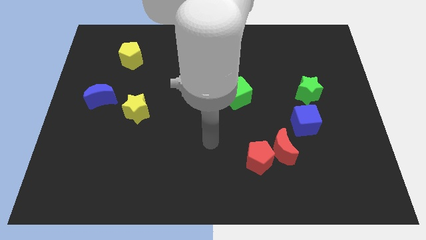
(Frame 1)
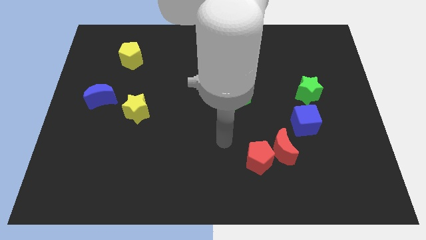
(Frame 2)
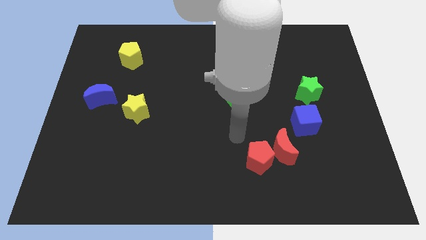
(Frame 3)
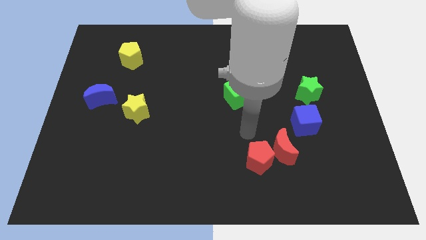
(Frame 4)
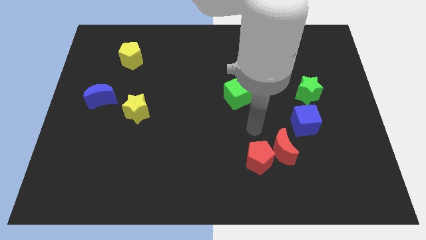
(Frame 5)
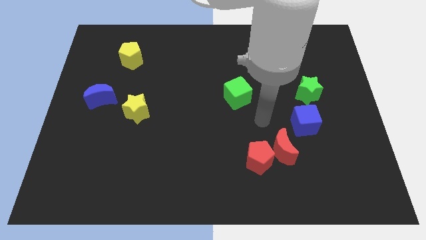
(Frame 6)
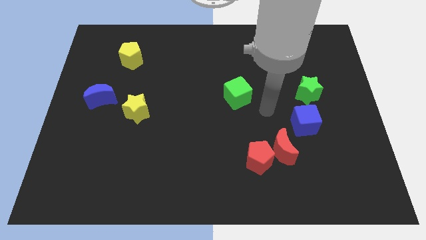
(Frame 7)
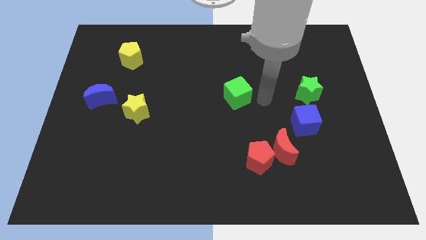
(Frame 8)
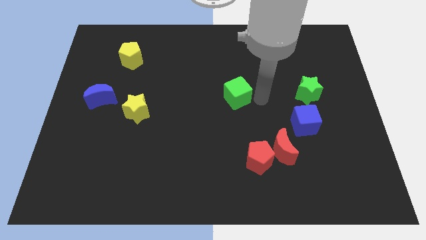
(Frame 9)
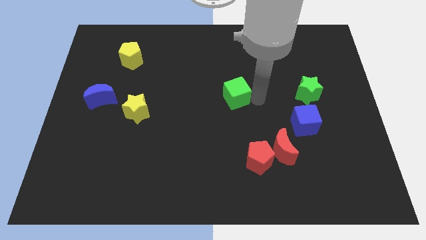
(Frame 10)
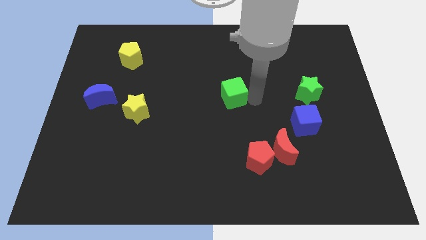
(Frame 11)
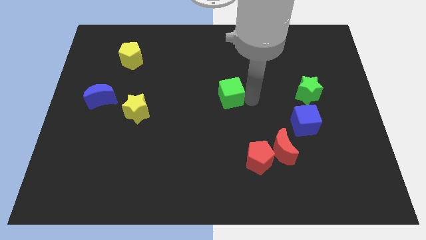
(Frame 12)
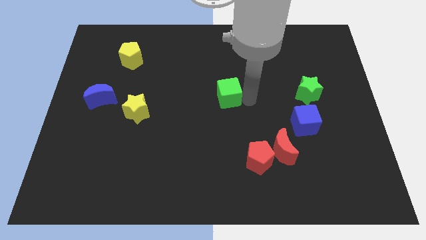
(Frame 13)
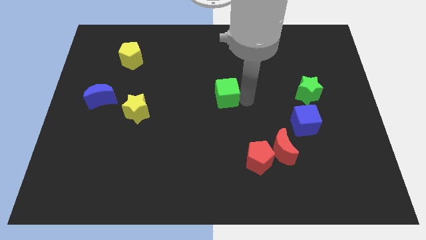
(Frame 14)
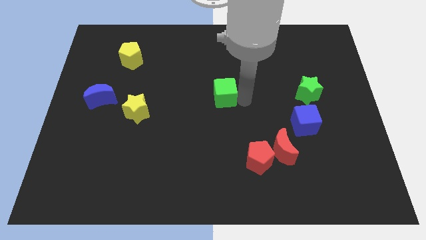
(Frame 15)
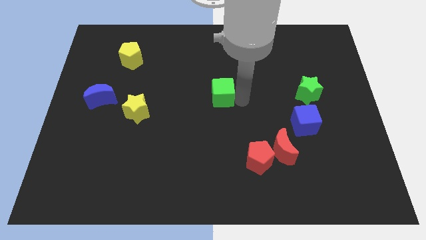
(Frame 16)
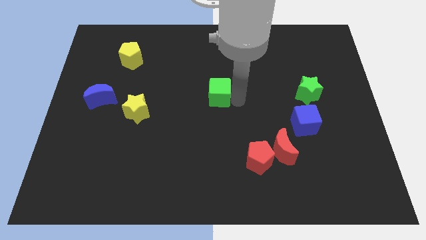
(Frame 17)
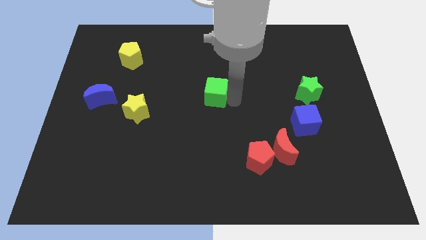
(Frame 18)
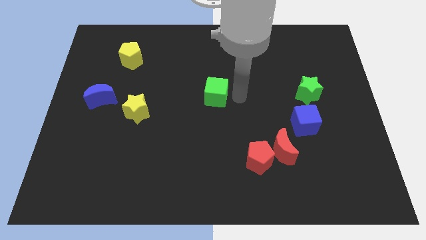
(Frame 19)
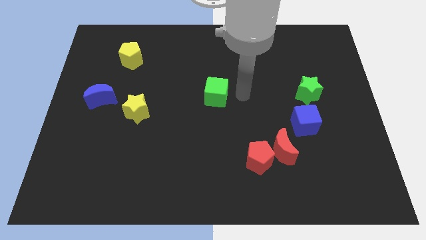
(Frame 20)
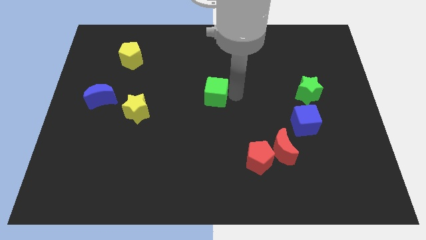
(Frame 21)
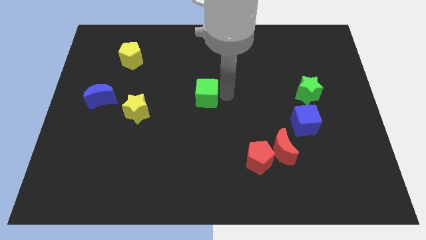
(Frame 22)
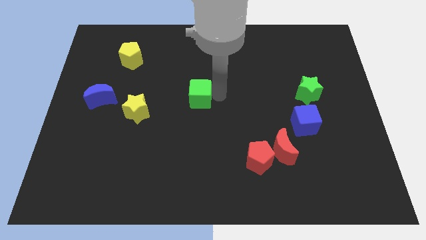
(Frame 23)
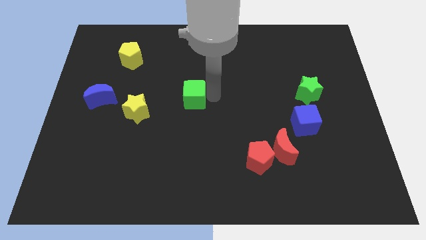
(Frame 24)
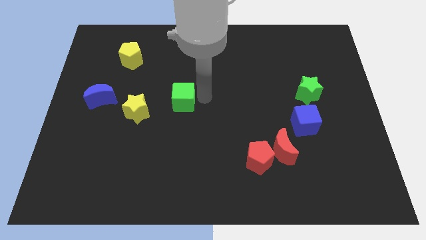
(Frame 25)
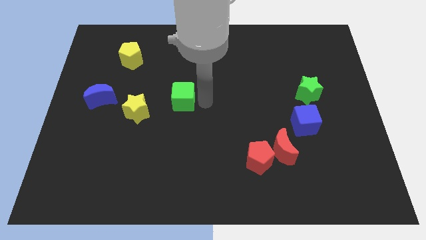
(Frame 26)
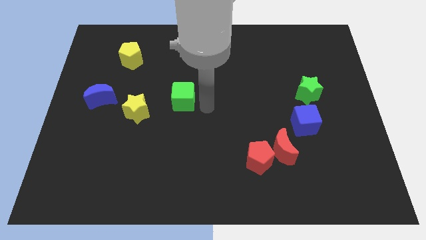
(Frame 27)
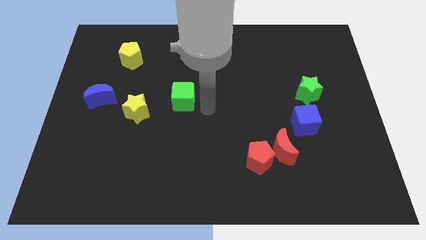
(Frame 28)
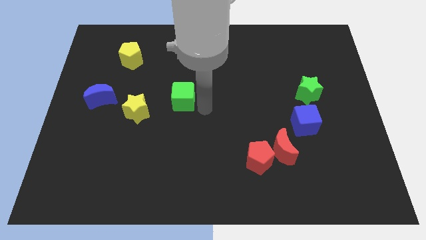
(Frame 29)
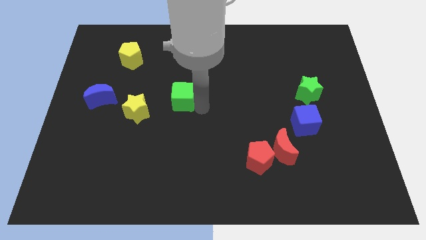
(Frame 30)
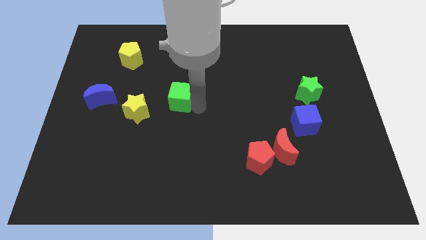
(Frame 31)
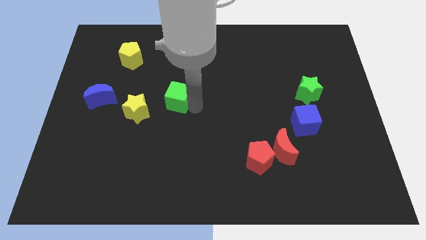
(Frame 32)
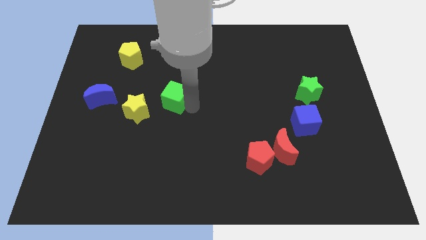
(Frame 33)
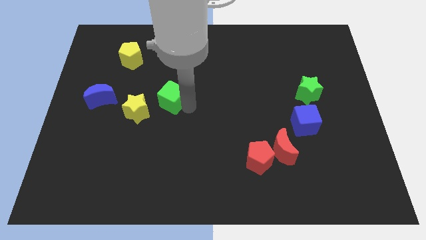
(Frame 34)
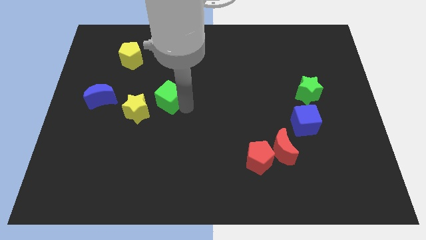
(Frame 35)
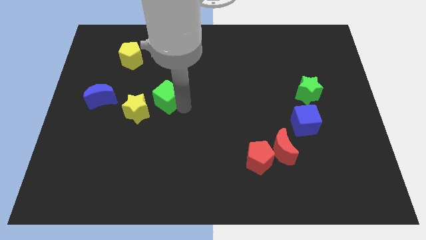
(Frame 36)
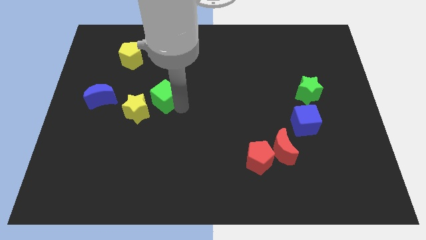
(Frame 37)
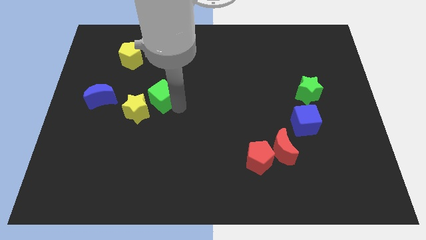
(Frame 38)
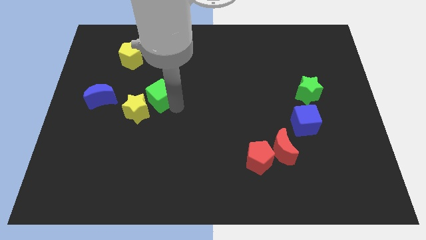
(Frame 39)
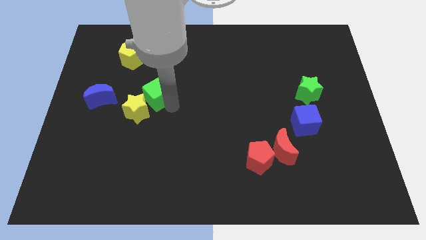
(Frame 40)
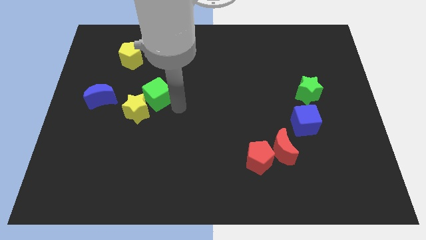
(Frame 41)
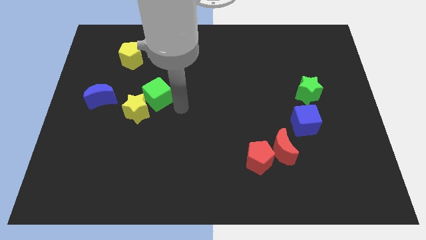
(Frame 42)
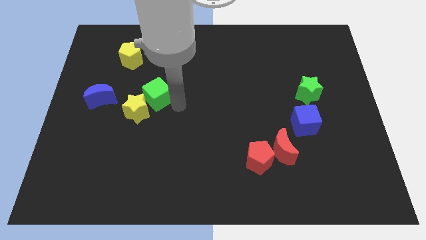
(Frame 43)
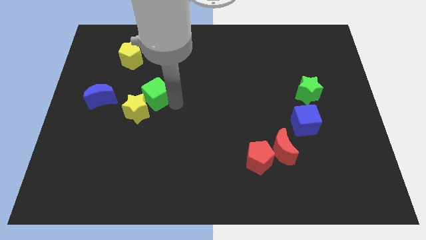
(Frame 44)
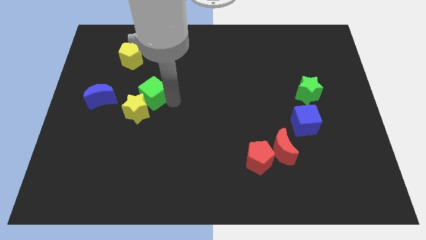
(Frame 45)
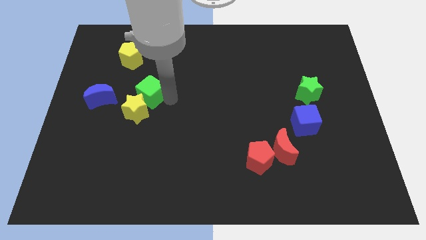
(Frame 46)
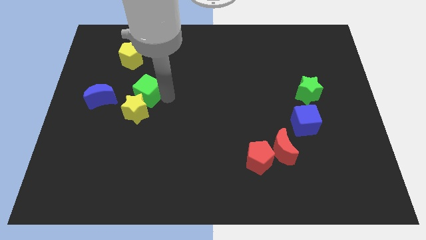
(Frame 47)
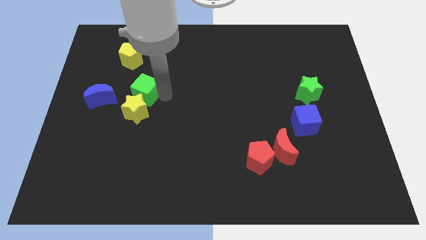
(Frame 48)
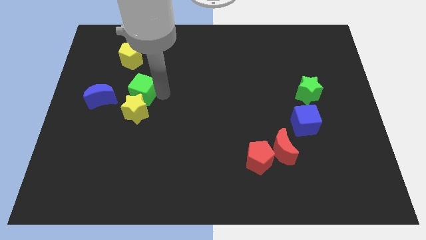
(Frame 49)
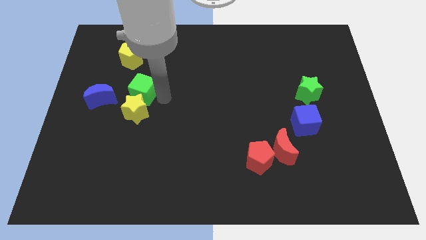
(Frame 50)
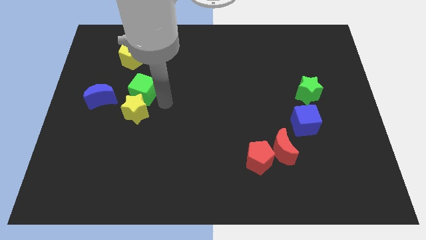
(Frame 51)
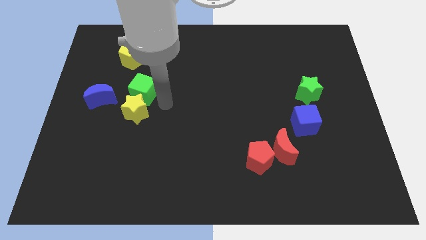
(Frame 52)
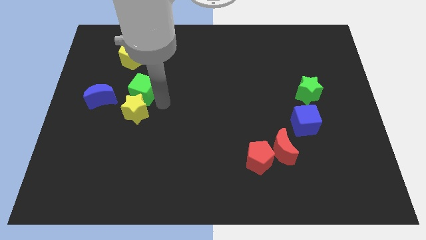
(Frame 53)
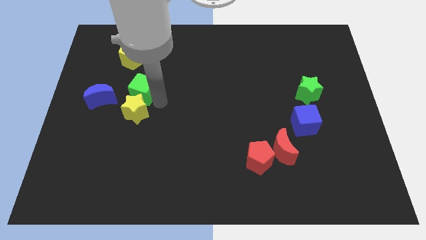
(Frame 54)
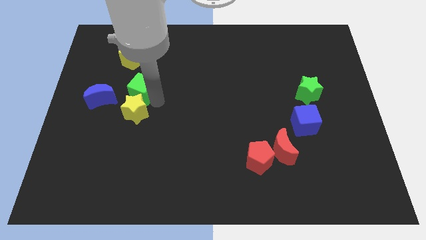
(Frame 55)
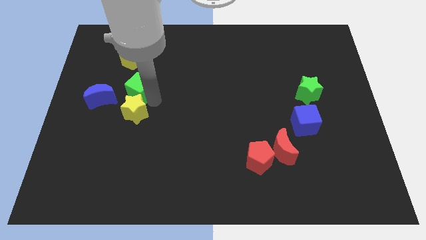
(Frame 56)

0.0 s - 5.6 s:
push the green cube to the top right of the blue moon

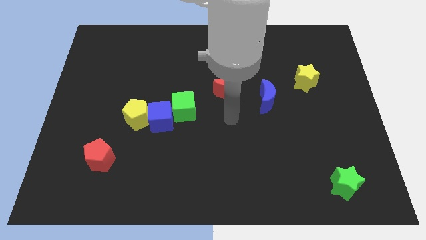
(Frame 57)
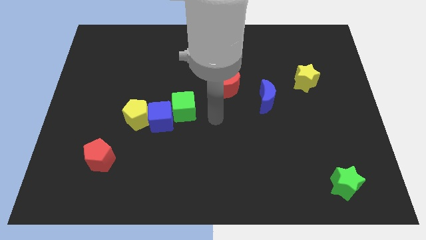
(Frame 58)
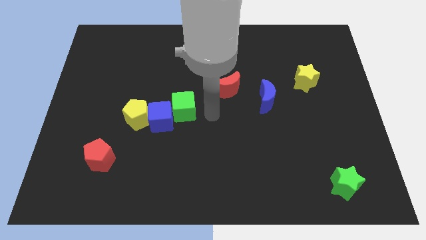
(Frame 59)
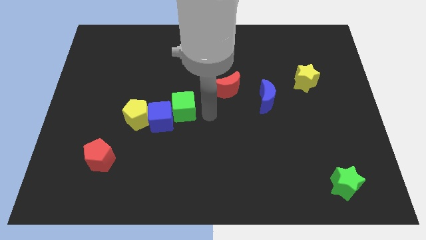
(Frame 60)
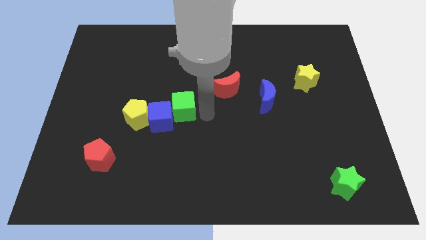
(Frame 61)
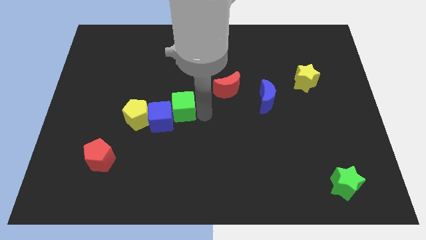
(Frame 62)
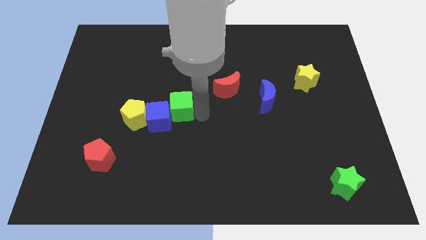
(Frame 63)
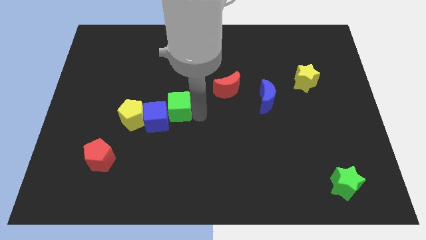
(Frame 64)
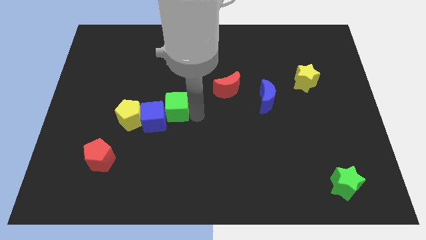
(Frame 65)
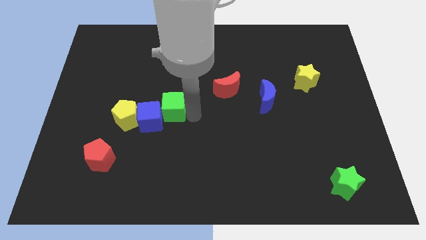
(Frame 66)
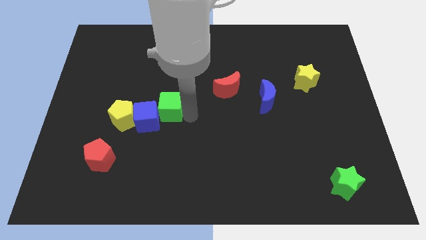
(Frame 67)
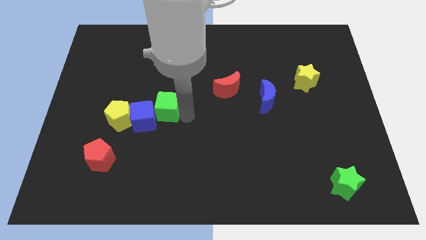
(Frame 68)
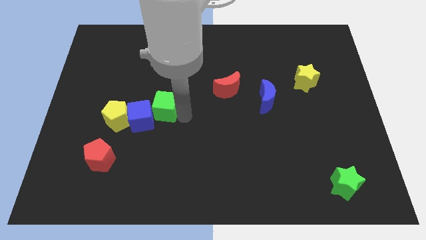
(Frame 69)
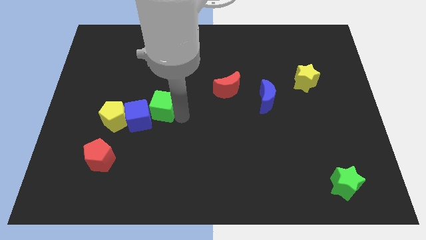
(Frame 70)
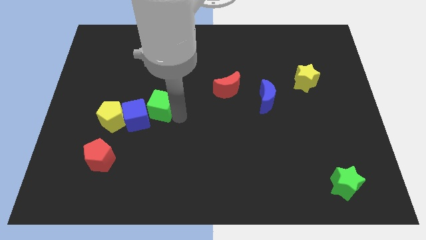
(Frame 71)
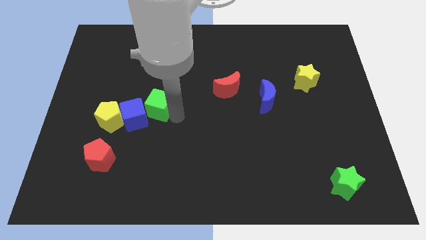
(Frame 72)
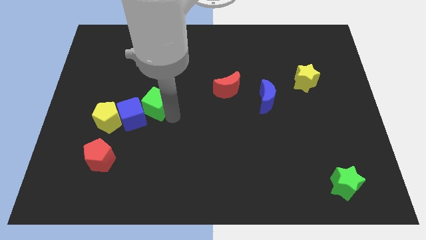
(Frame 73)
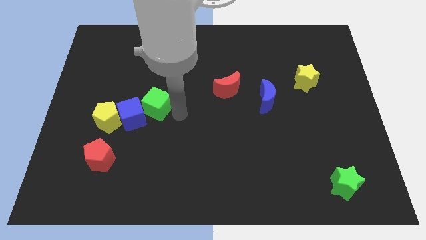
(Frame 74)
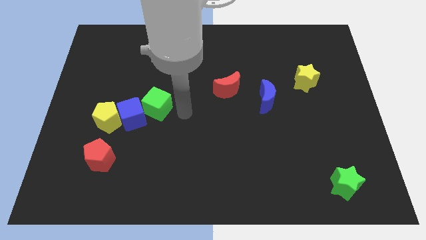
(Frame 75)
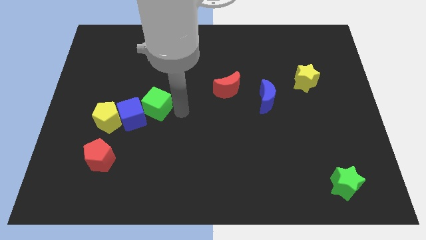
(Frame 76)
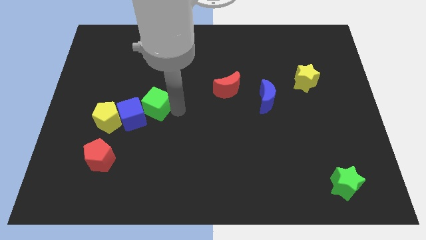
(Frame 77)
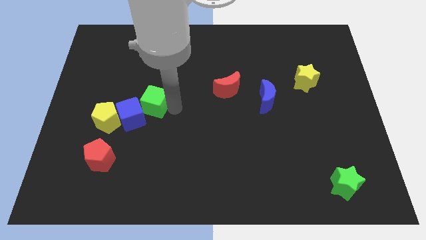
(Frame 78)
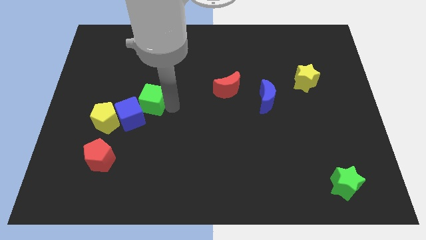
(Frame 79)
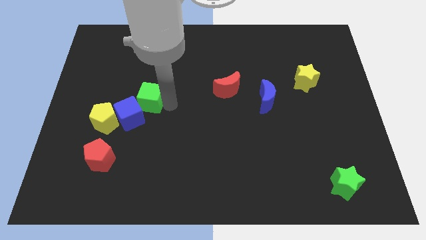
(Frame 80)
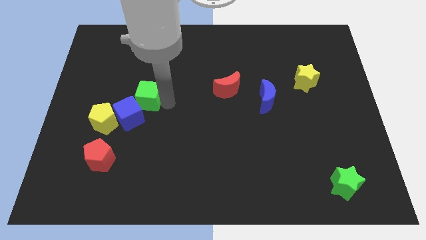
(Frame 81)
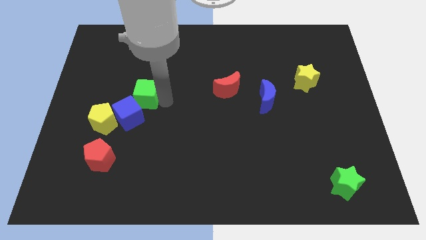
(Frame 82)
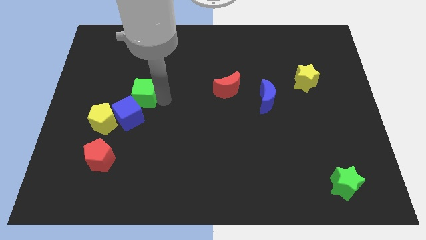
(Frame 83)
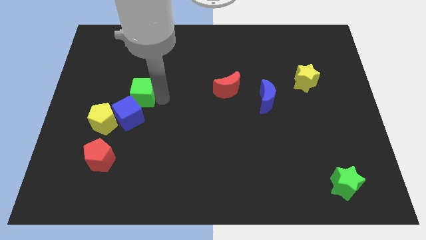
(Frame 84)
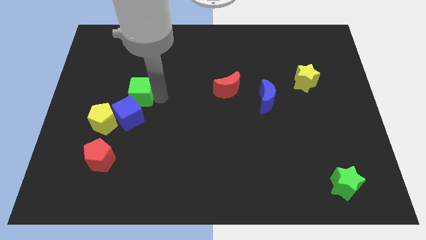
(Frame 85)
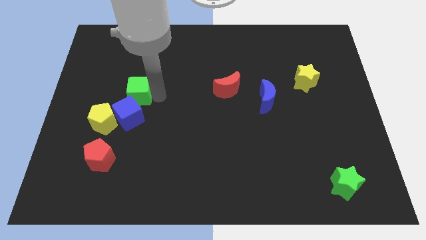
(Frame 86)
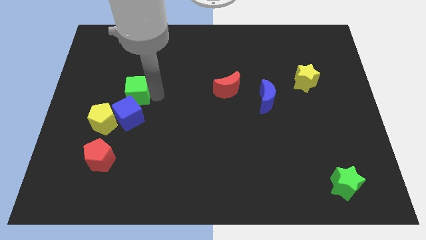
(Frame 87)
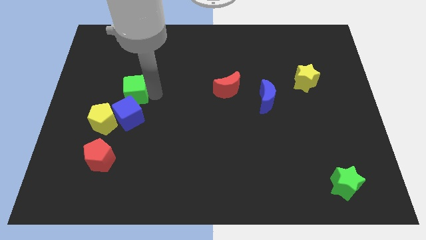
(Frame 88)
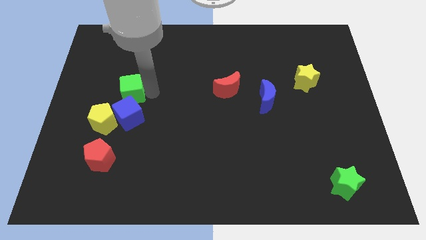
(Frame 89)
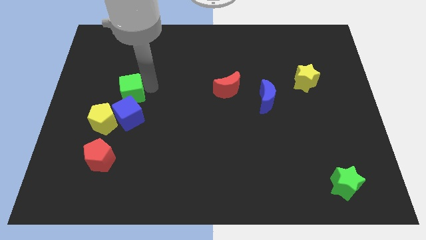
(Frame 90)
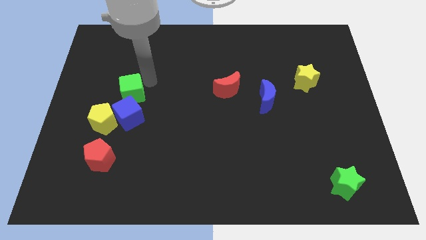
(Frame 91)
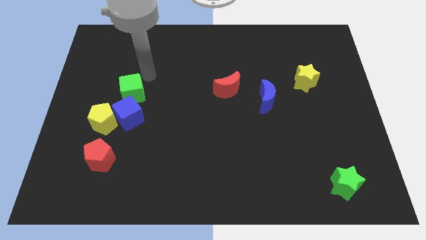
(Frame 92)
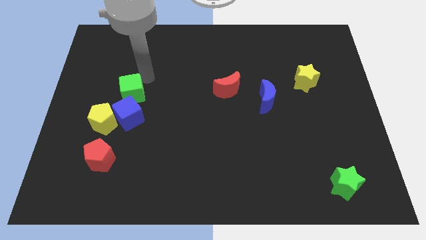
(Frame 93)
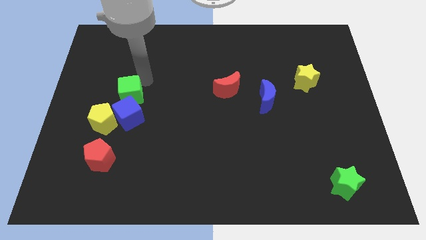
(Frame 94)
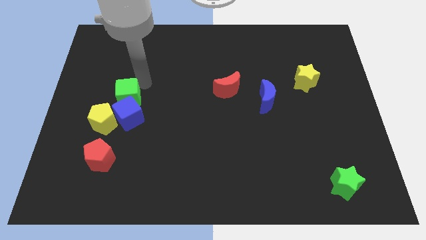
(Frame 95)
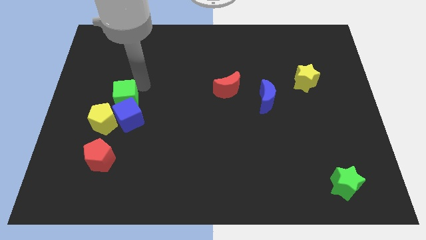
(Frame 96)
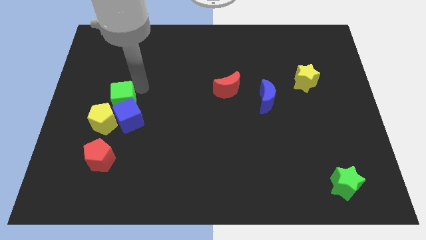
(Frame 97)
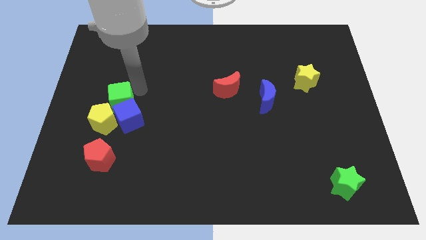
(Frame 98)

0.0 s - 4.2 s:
slide the green cube to the top of the red pentagon
